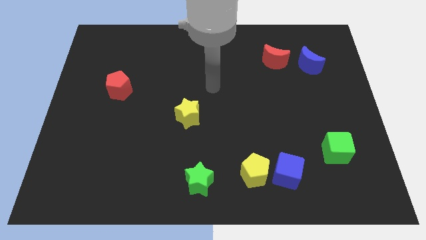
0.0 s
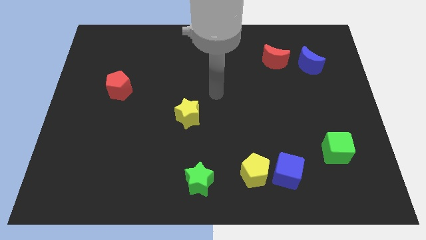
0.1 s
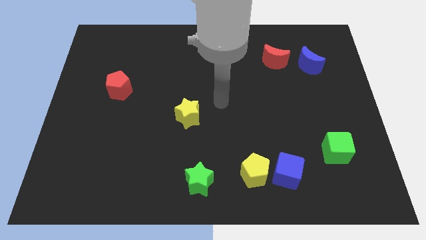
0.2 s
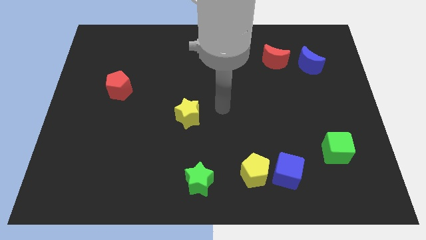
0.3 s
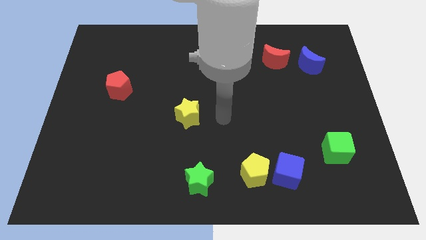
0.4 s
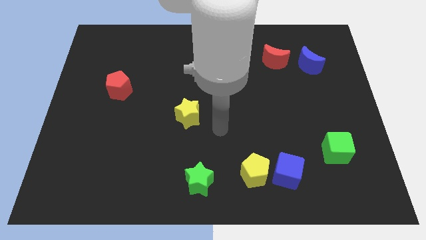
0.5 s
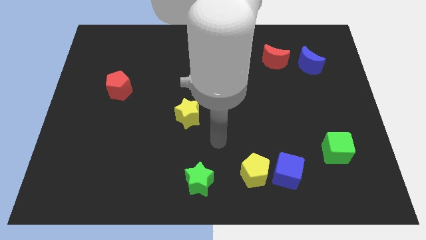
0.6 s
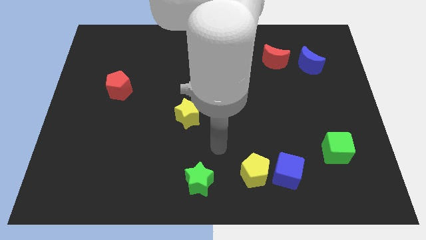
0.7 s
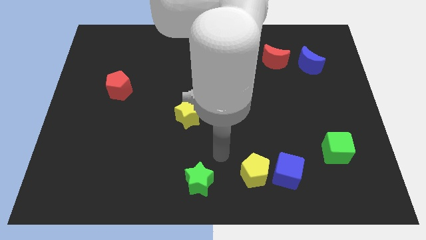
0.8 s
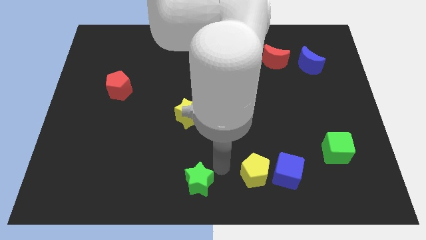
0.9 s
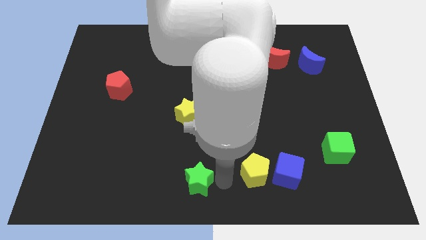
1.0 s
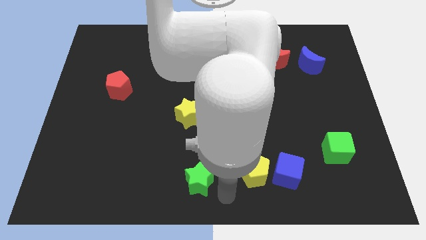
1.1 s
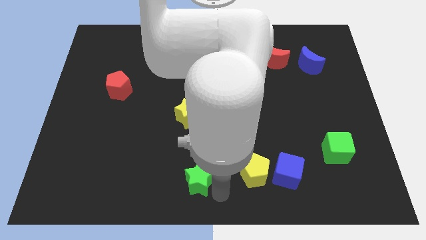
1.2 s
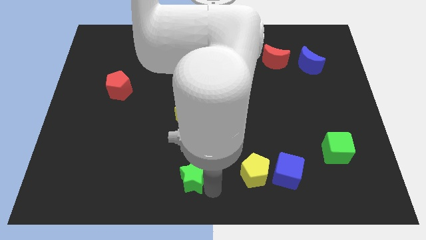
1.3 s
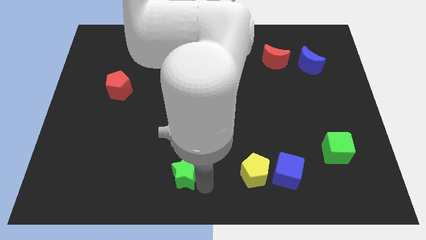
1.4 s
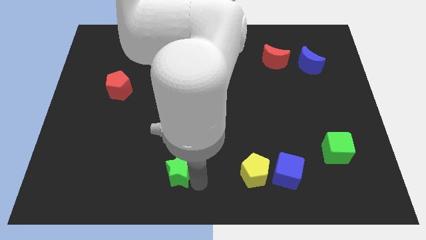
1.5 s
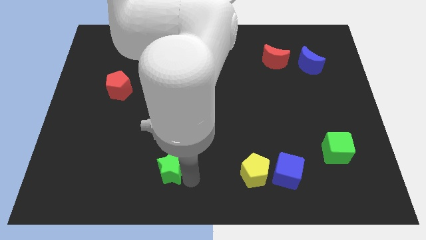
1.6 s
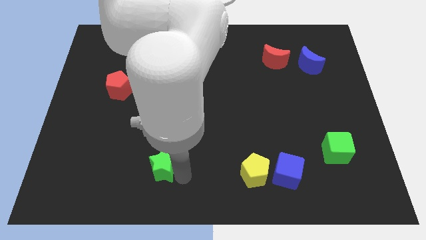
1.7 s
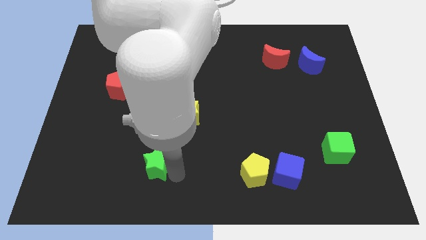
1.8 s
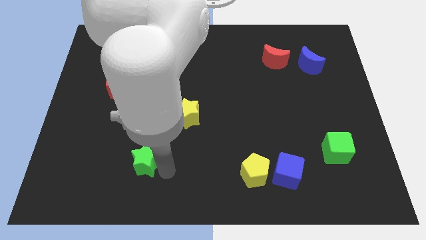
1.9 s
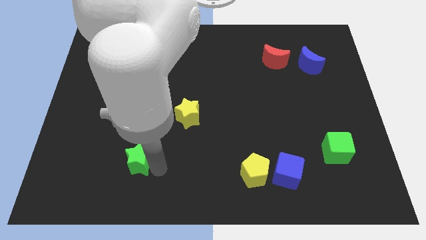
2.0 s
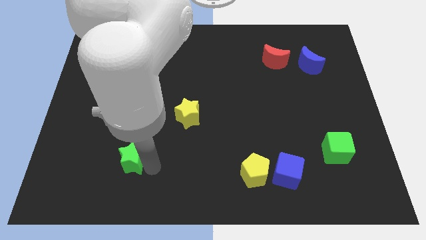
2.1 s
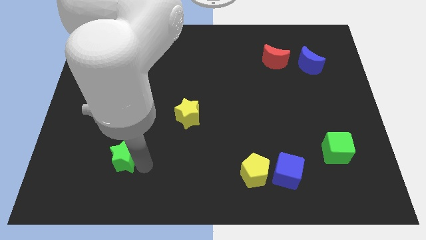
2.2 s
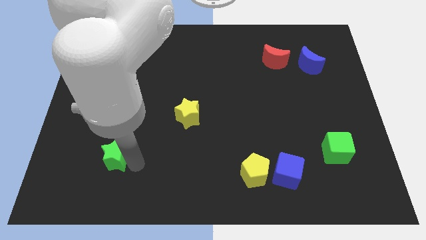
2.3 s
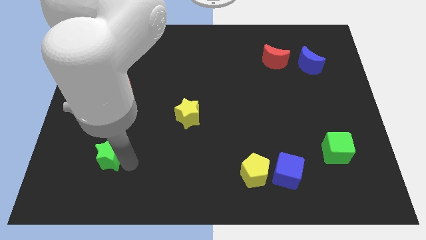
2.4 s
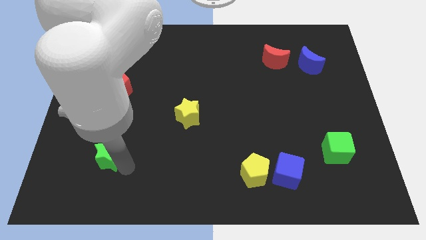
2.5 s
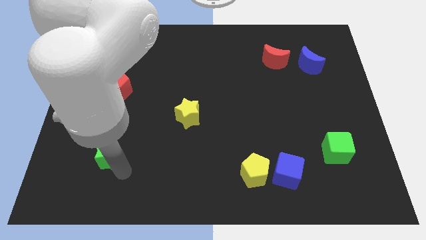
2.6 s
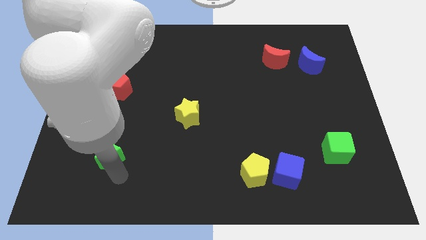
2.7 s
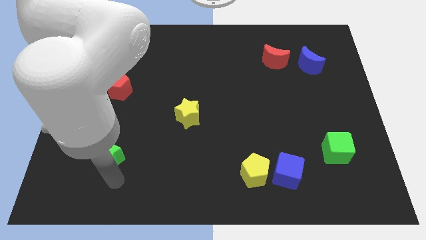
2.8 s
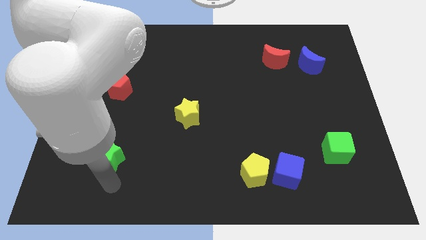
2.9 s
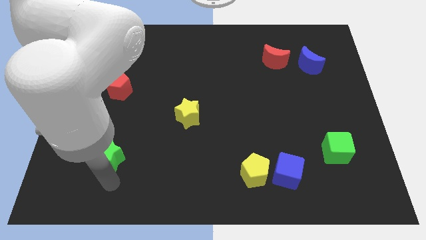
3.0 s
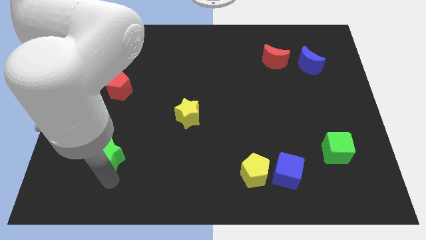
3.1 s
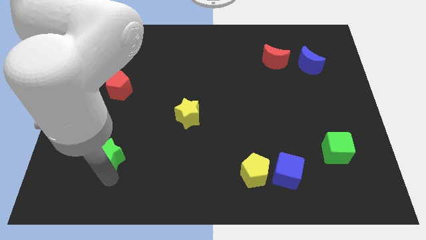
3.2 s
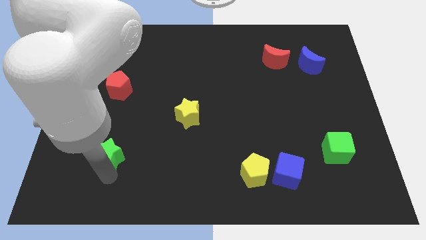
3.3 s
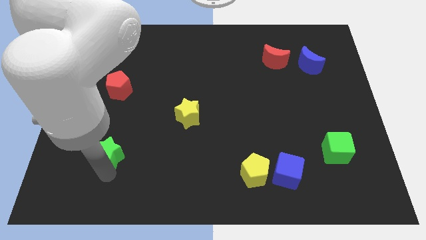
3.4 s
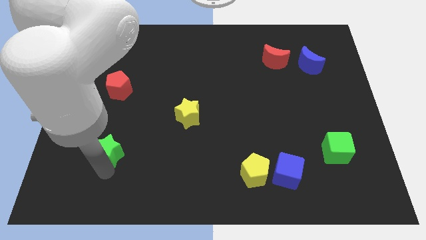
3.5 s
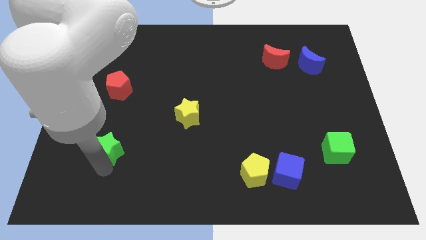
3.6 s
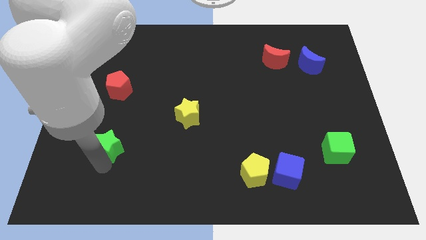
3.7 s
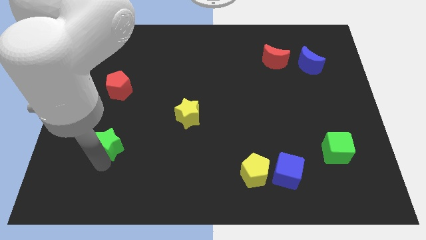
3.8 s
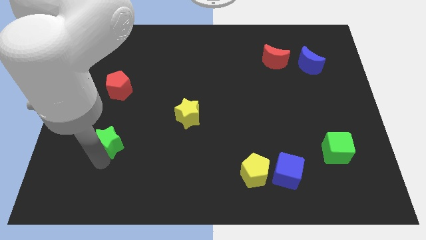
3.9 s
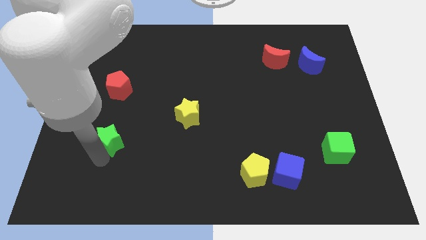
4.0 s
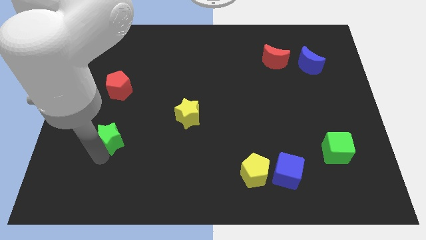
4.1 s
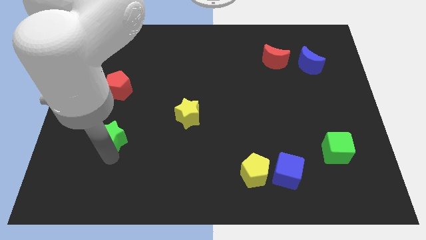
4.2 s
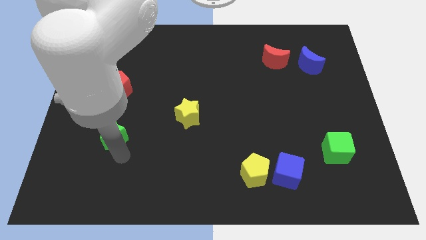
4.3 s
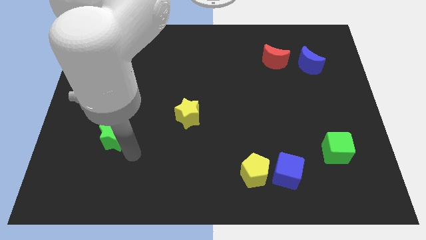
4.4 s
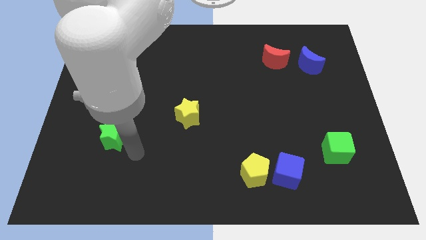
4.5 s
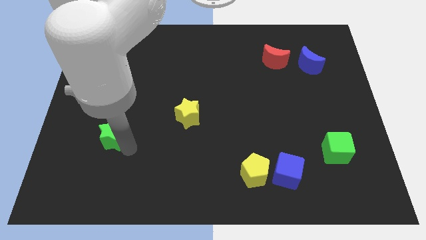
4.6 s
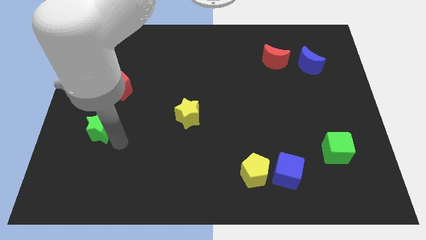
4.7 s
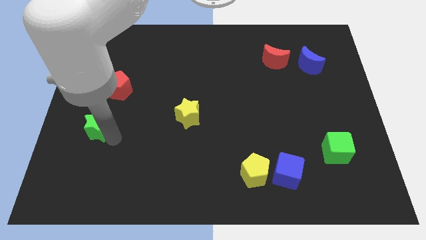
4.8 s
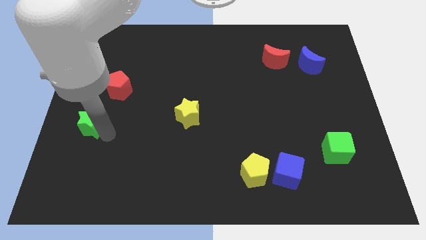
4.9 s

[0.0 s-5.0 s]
push the green star to the center left

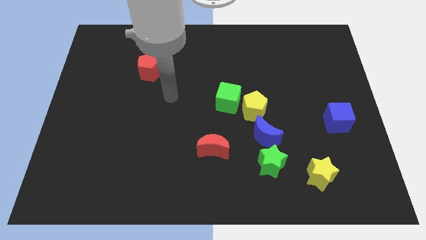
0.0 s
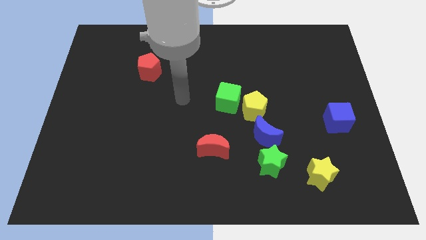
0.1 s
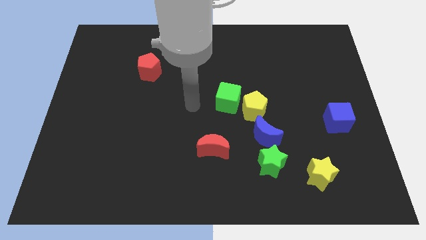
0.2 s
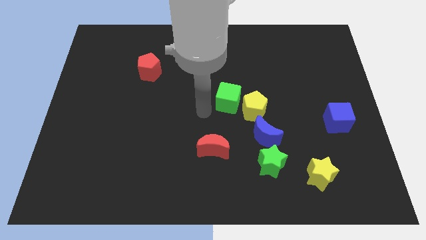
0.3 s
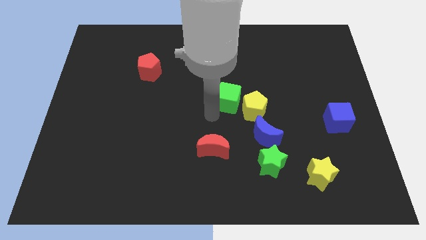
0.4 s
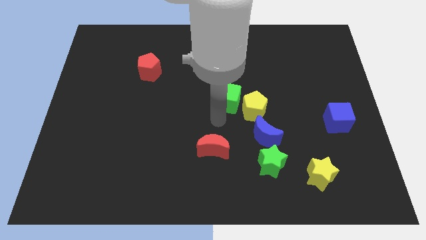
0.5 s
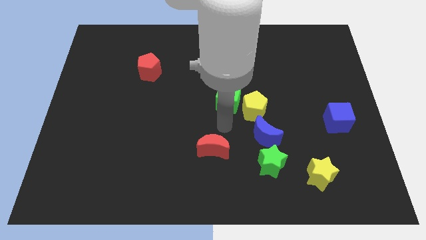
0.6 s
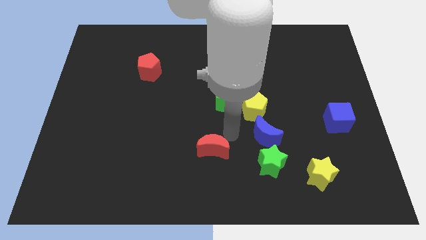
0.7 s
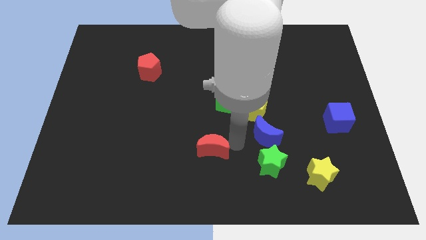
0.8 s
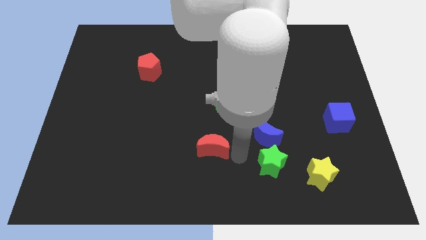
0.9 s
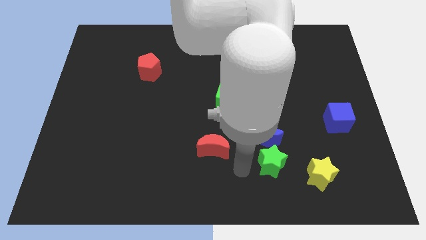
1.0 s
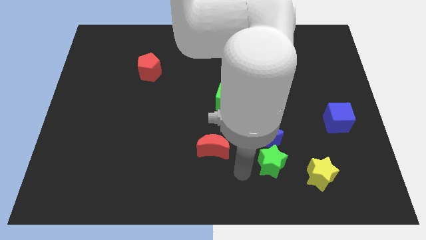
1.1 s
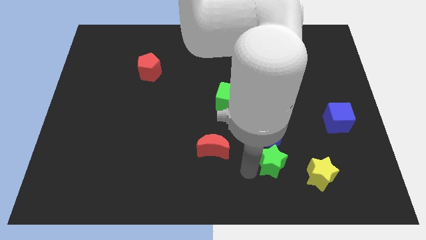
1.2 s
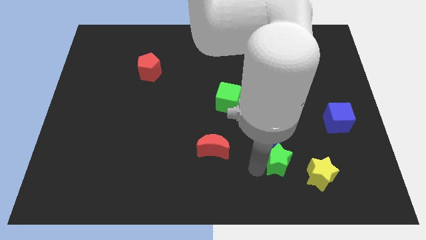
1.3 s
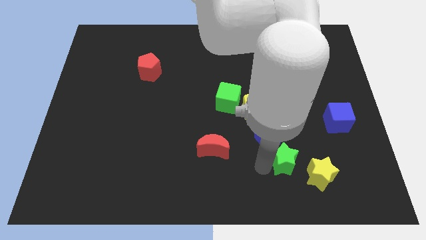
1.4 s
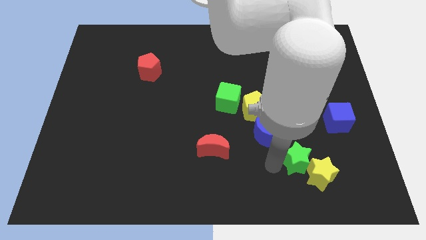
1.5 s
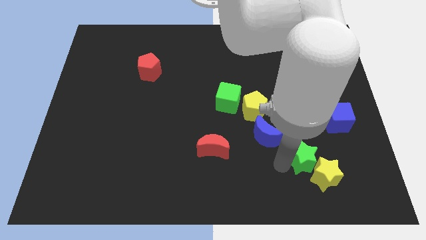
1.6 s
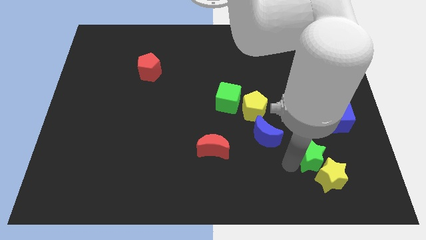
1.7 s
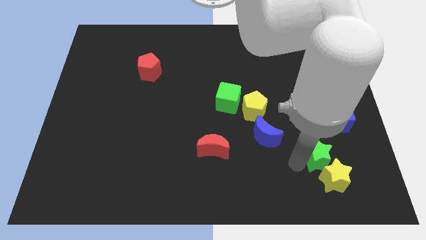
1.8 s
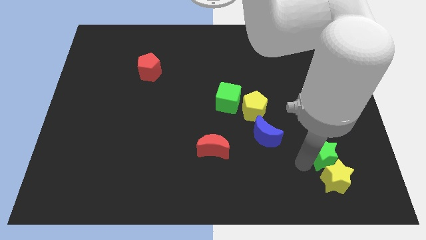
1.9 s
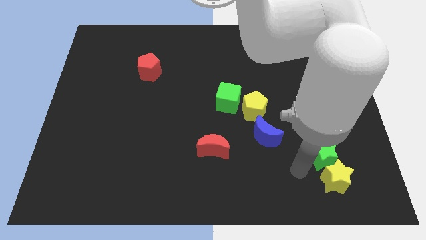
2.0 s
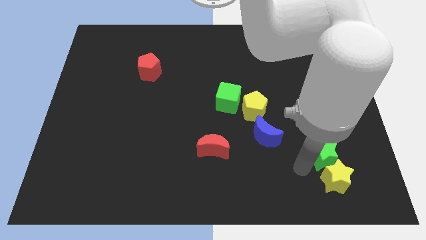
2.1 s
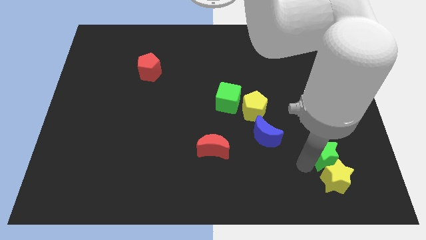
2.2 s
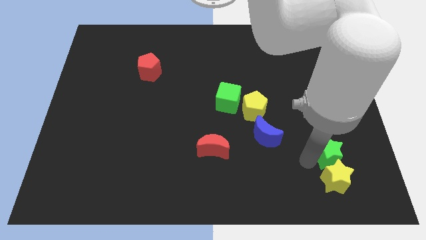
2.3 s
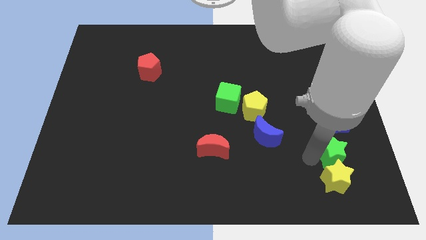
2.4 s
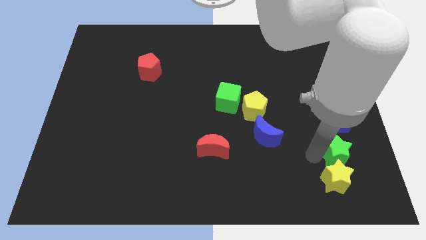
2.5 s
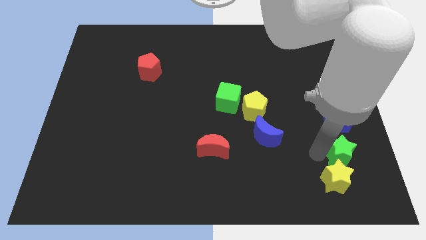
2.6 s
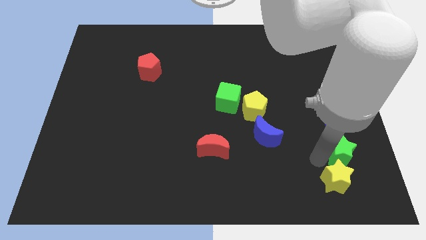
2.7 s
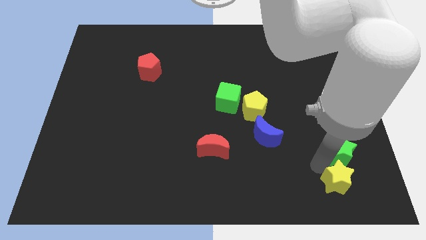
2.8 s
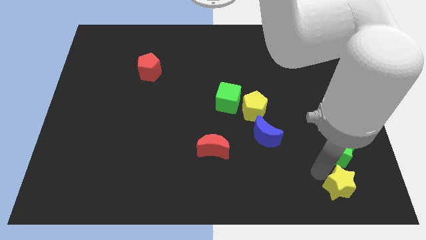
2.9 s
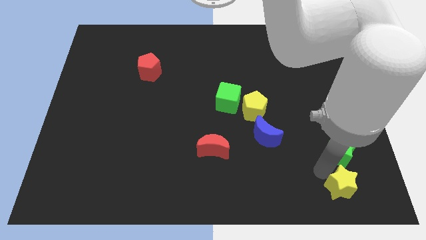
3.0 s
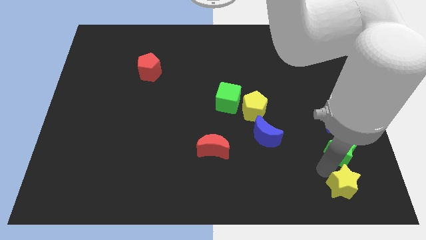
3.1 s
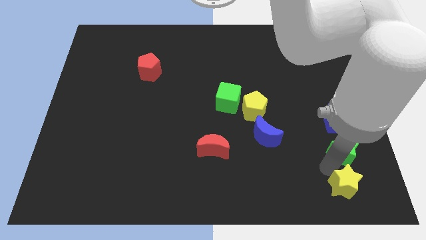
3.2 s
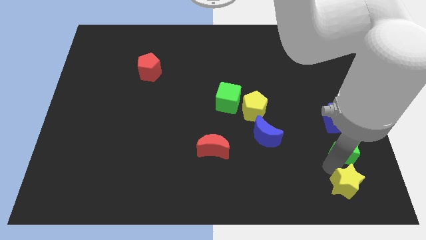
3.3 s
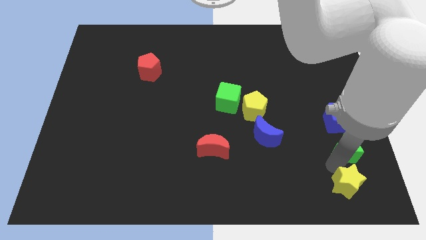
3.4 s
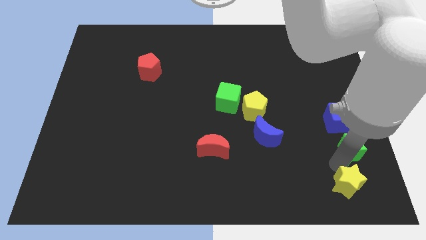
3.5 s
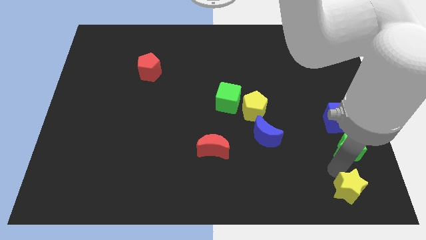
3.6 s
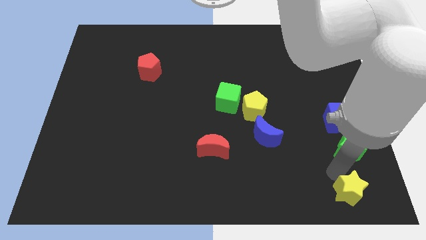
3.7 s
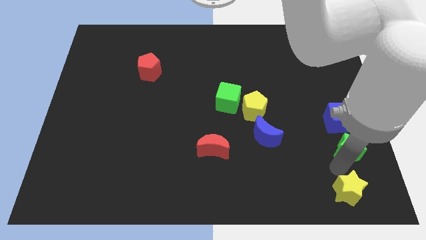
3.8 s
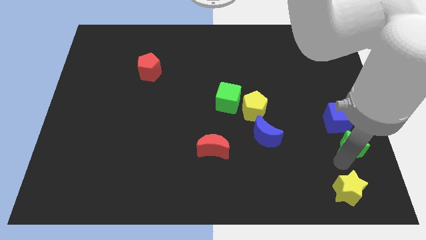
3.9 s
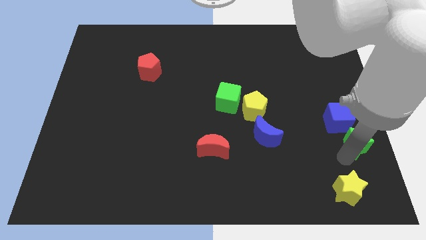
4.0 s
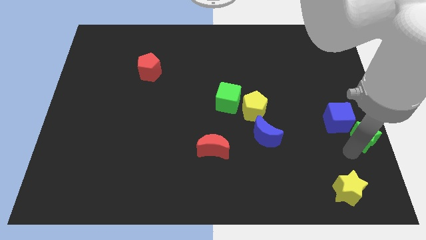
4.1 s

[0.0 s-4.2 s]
slide the green star to the right side of the board
